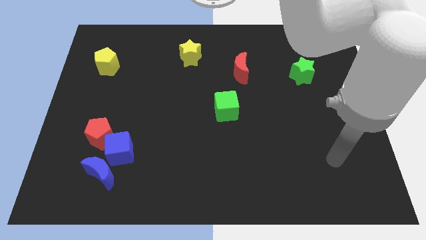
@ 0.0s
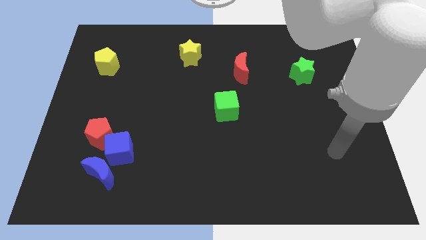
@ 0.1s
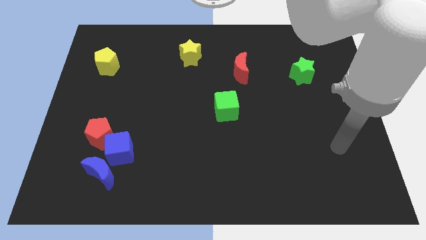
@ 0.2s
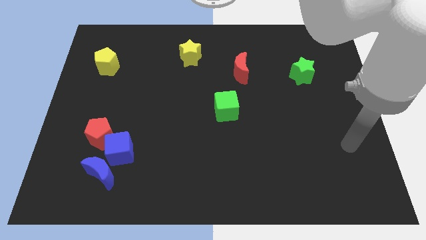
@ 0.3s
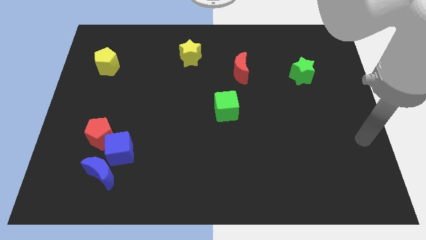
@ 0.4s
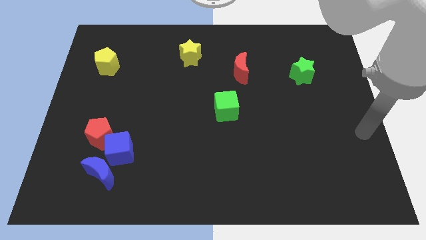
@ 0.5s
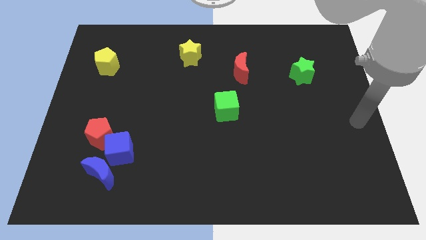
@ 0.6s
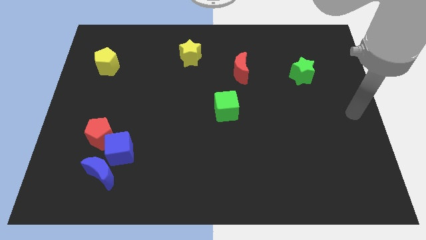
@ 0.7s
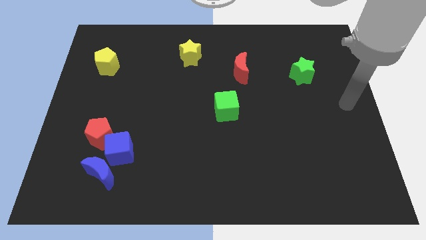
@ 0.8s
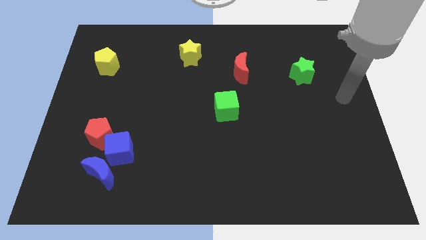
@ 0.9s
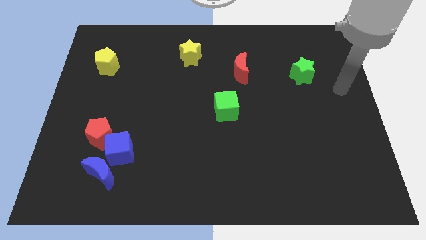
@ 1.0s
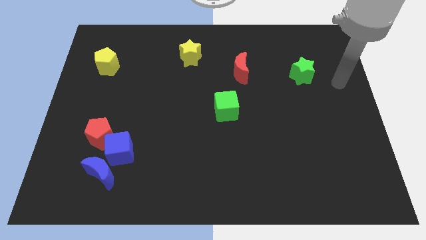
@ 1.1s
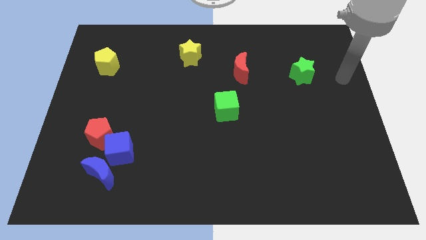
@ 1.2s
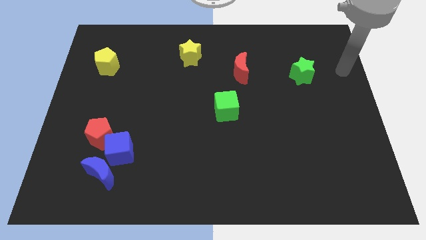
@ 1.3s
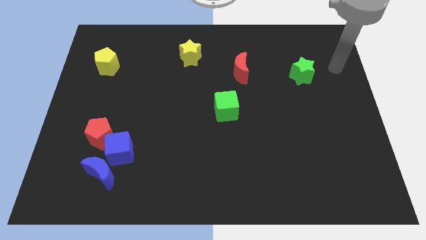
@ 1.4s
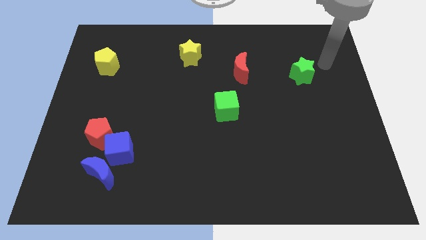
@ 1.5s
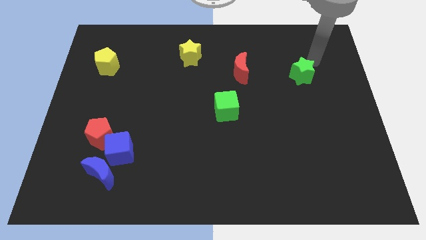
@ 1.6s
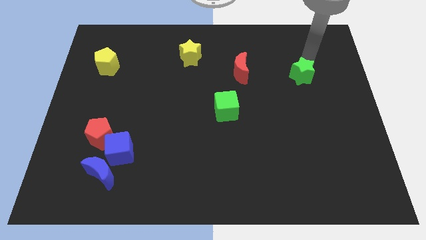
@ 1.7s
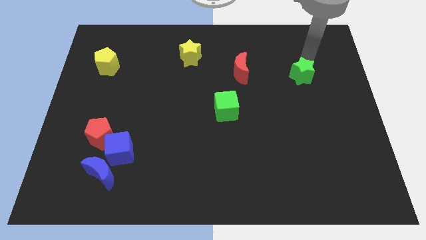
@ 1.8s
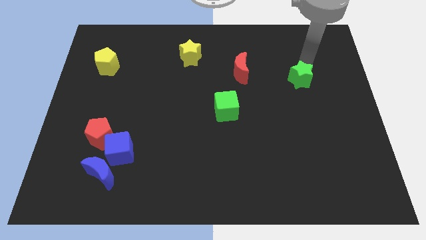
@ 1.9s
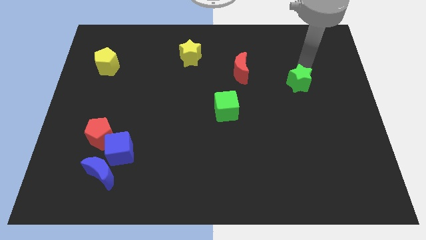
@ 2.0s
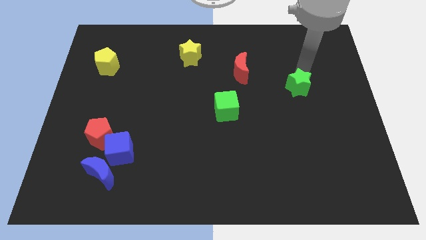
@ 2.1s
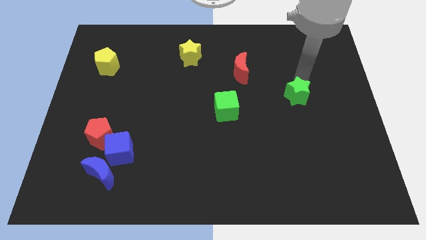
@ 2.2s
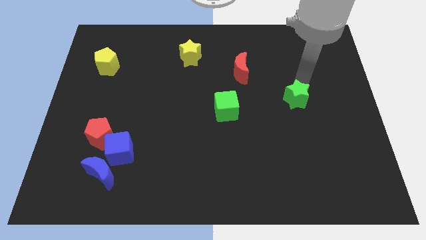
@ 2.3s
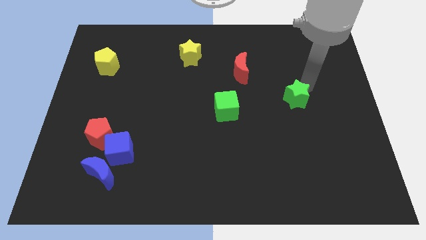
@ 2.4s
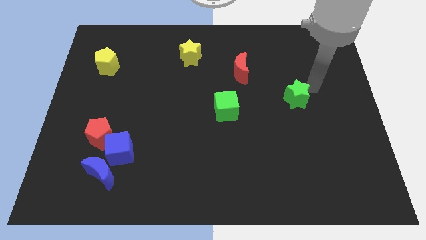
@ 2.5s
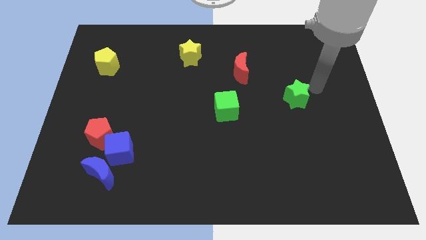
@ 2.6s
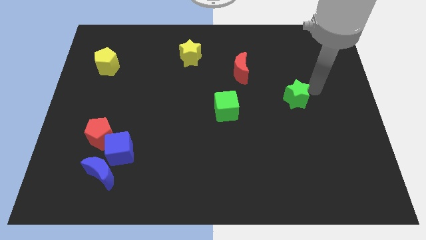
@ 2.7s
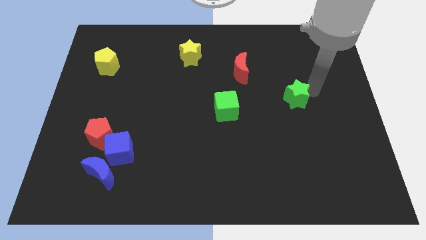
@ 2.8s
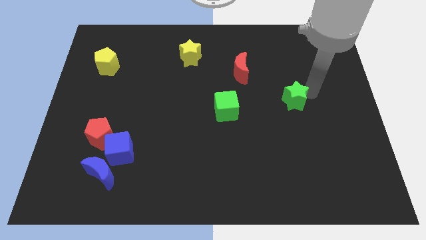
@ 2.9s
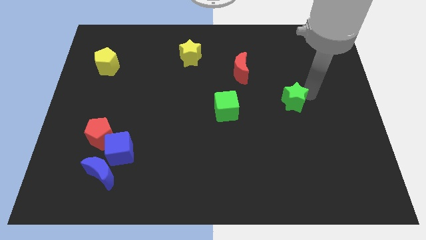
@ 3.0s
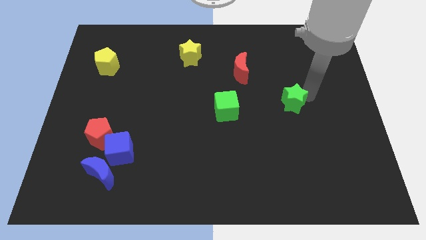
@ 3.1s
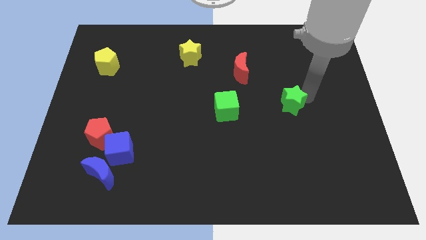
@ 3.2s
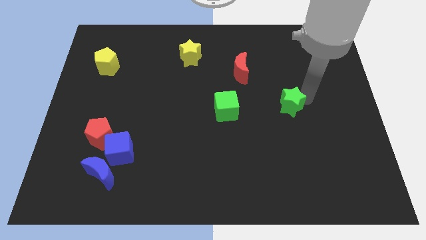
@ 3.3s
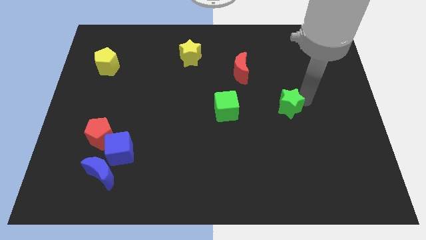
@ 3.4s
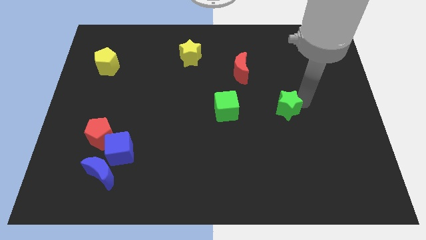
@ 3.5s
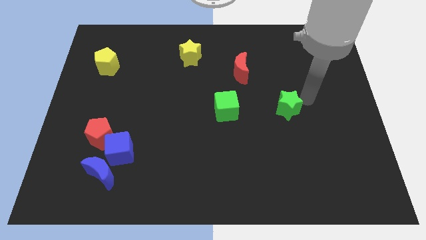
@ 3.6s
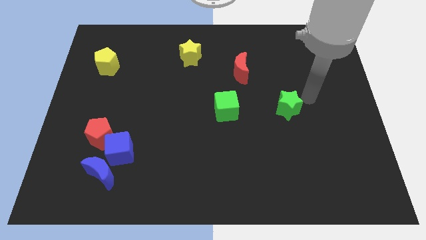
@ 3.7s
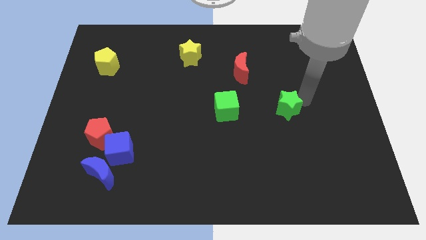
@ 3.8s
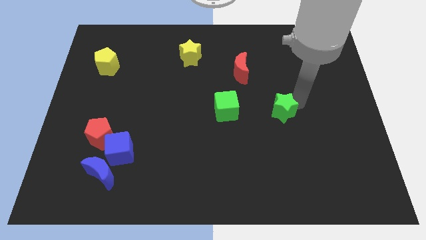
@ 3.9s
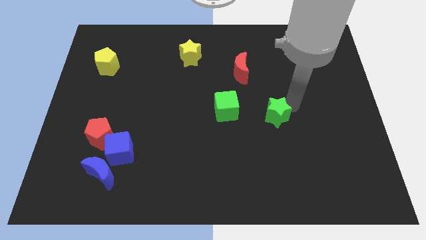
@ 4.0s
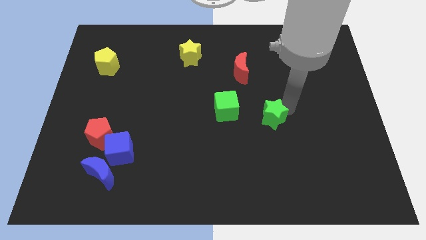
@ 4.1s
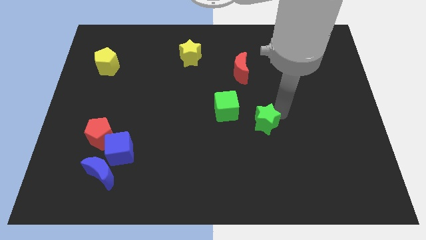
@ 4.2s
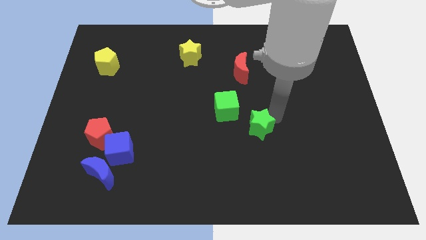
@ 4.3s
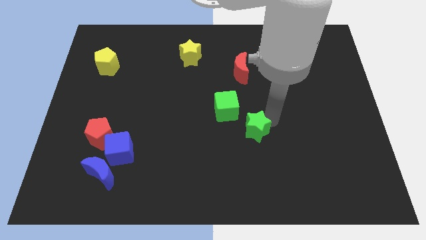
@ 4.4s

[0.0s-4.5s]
slide the green star diagonally down and to the left

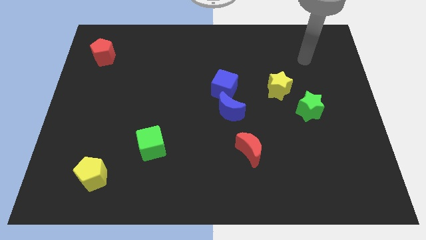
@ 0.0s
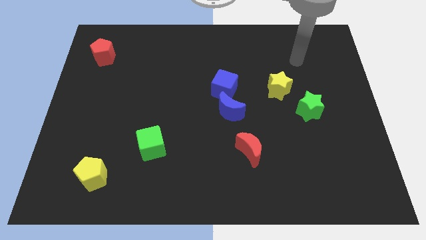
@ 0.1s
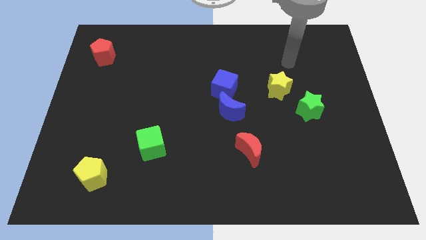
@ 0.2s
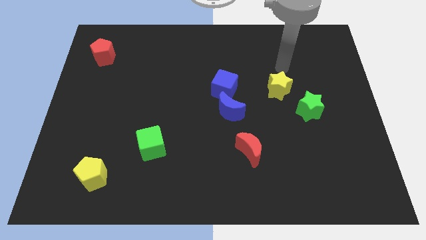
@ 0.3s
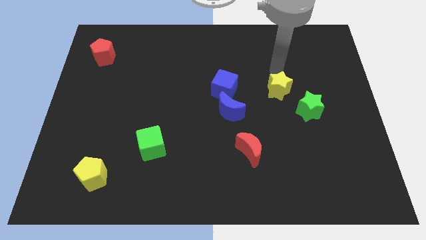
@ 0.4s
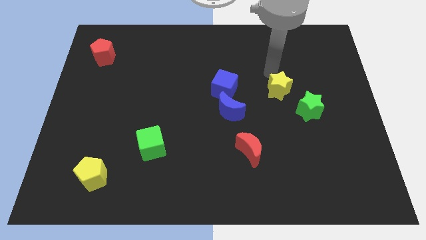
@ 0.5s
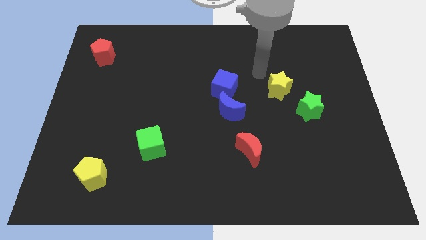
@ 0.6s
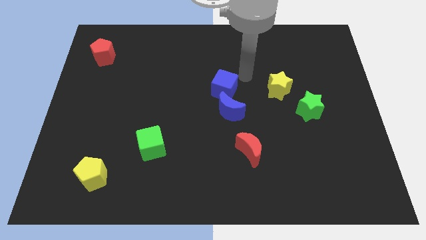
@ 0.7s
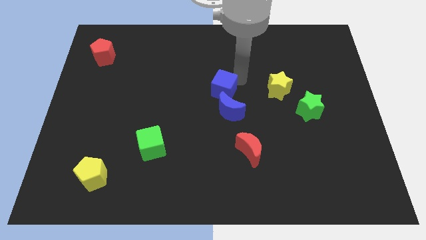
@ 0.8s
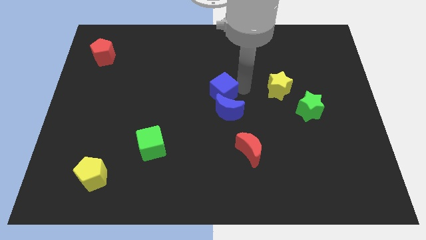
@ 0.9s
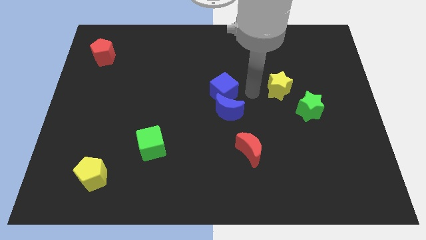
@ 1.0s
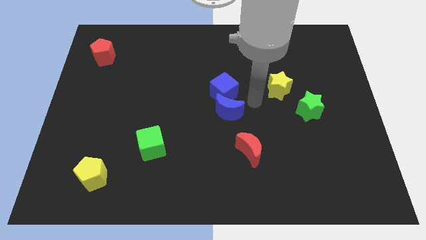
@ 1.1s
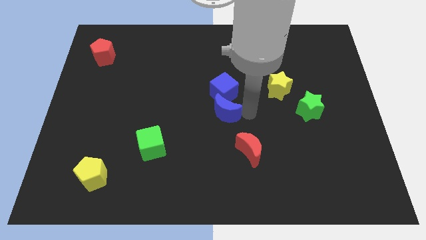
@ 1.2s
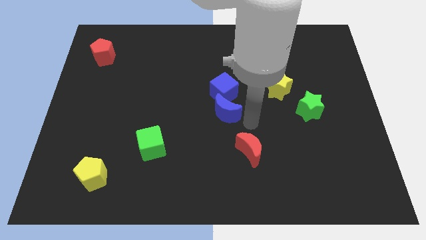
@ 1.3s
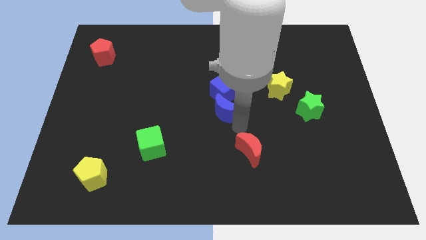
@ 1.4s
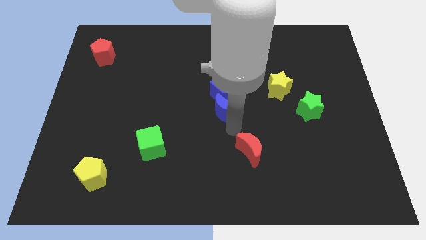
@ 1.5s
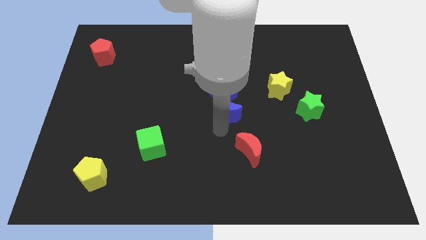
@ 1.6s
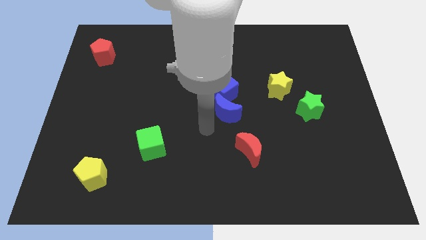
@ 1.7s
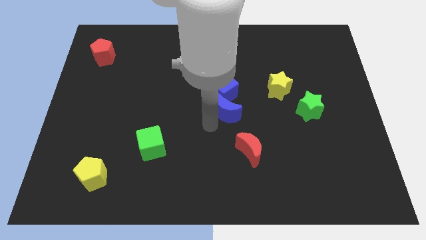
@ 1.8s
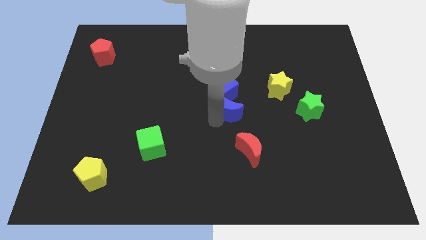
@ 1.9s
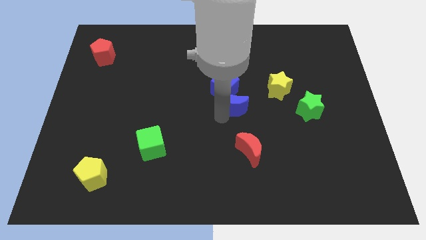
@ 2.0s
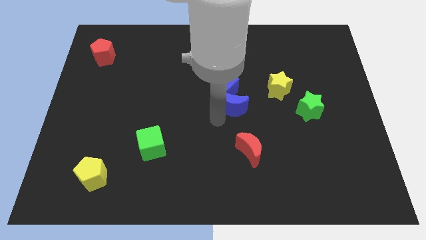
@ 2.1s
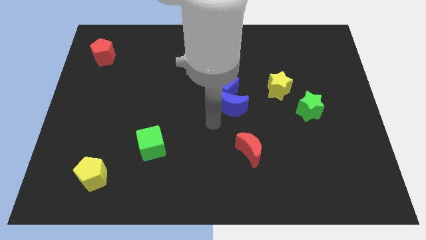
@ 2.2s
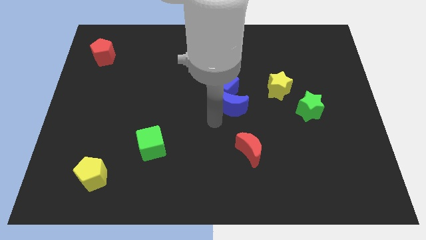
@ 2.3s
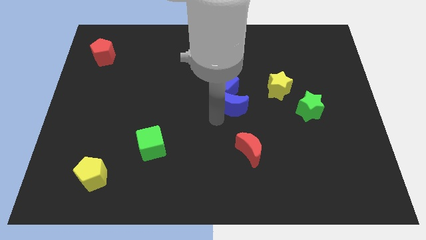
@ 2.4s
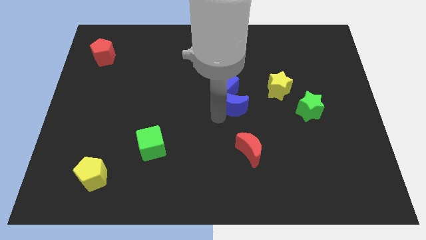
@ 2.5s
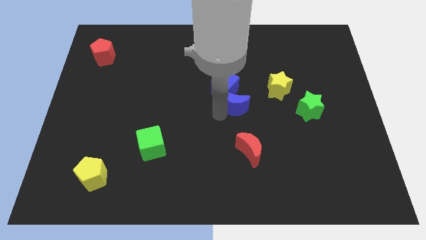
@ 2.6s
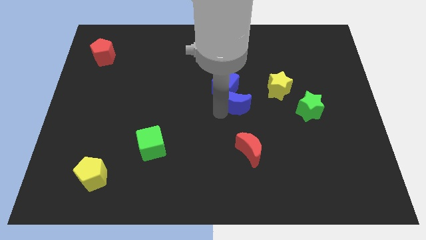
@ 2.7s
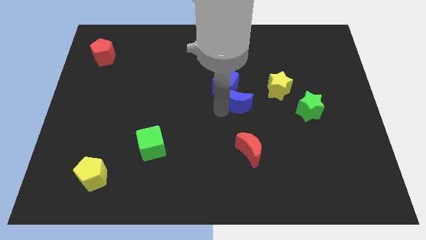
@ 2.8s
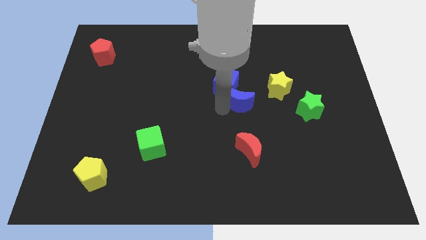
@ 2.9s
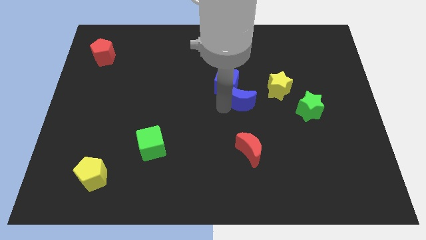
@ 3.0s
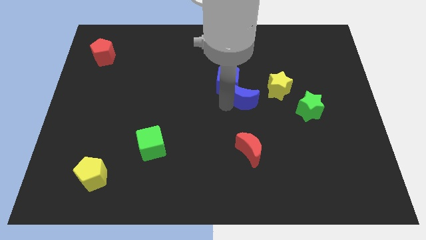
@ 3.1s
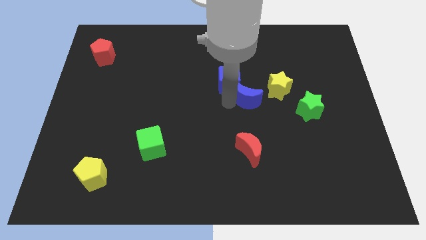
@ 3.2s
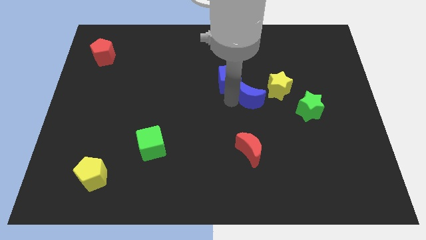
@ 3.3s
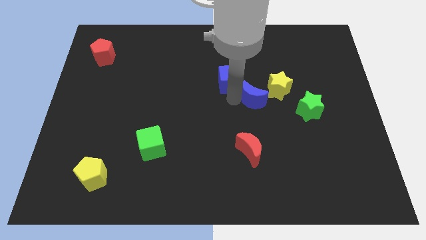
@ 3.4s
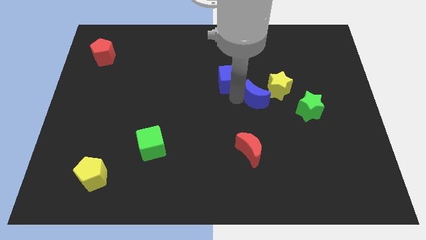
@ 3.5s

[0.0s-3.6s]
push the blue moon a little bit up and then to the right
